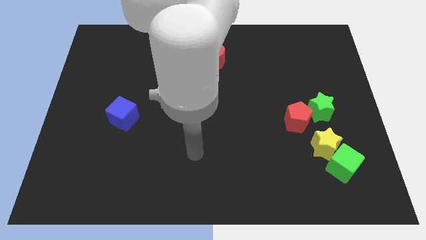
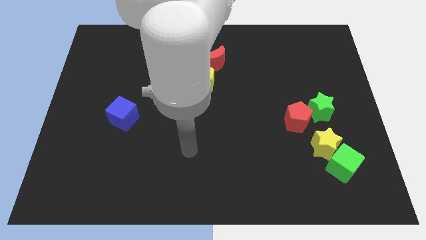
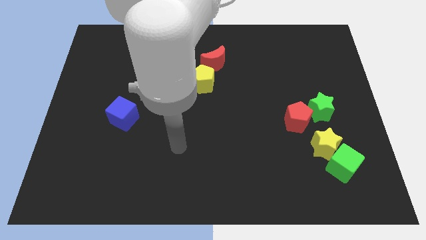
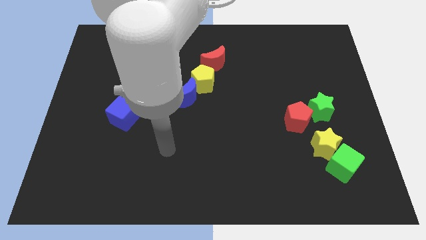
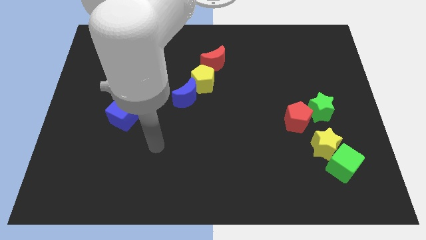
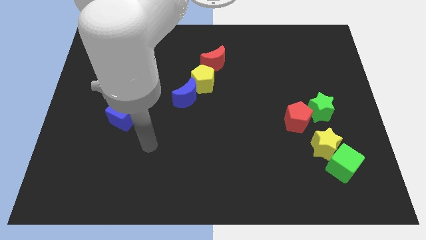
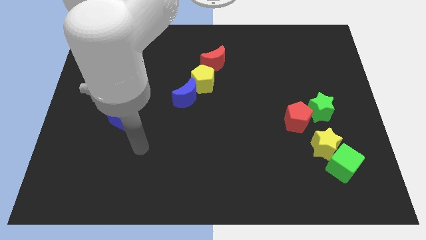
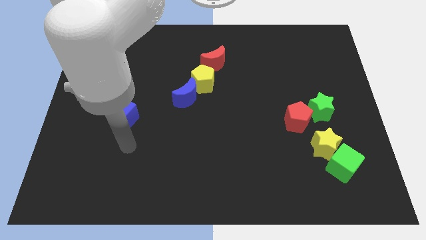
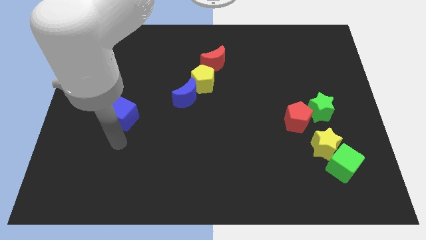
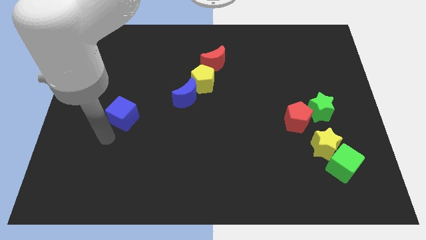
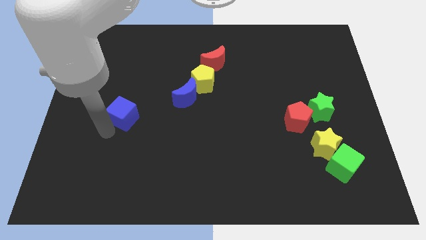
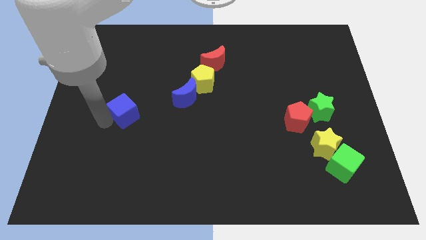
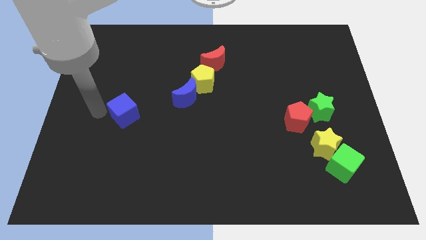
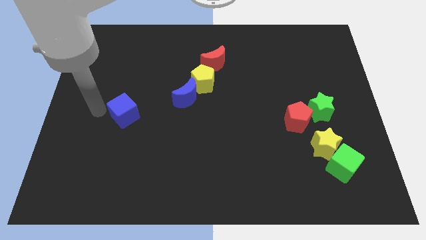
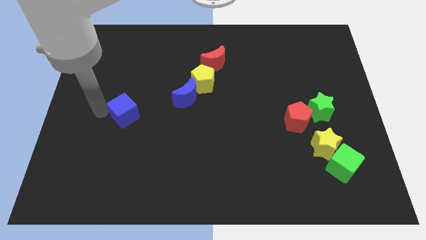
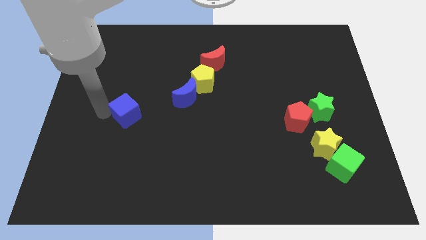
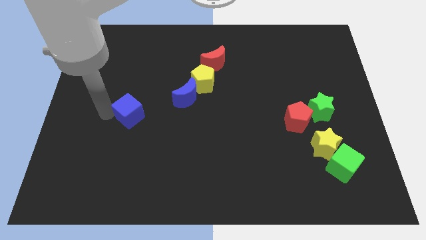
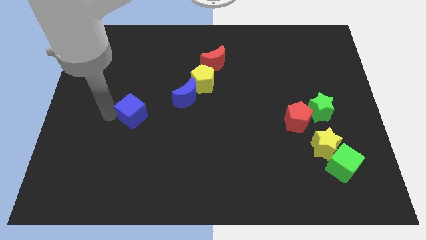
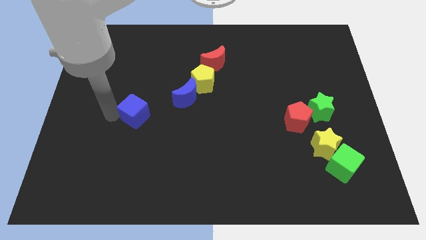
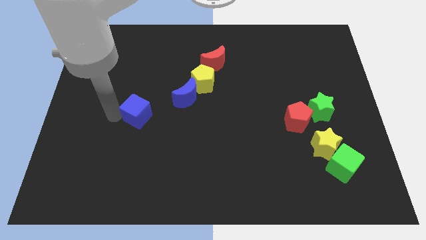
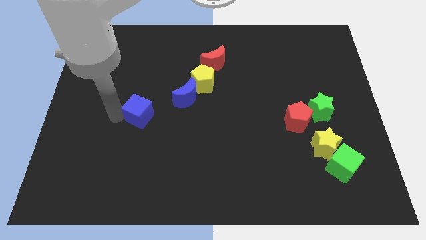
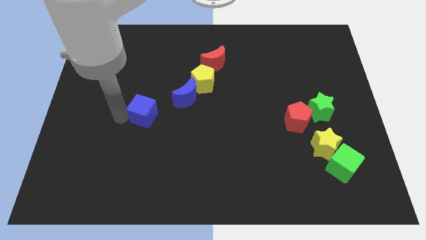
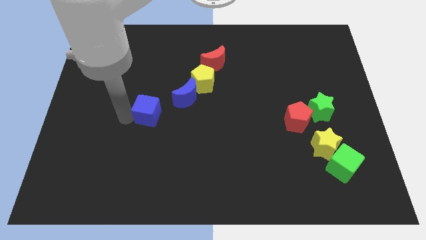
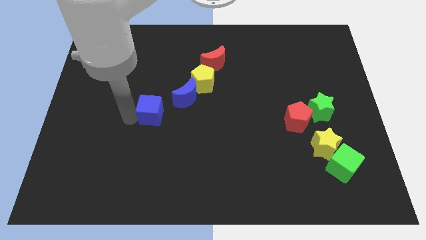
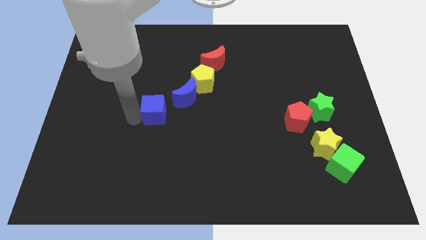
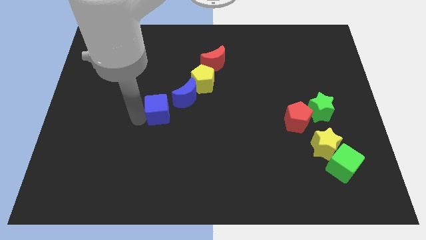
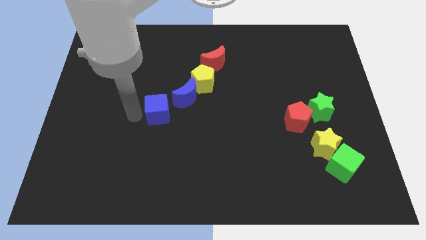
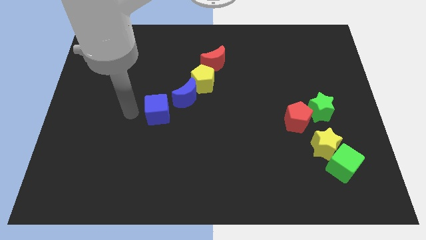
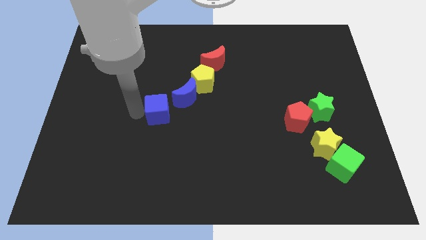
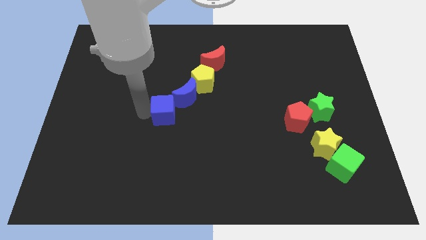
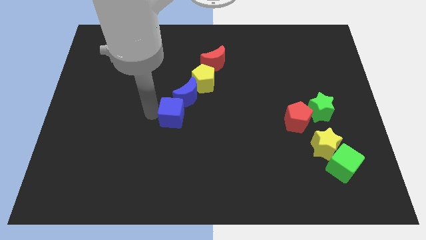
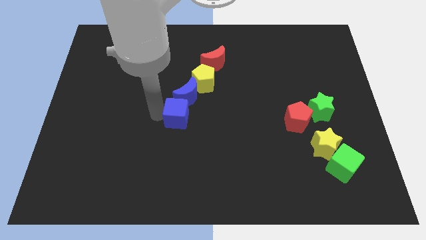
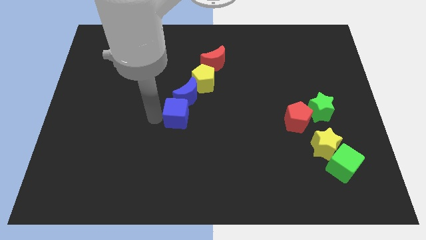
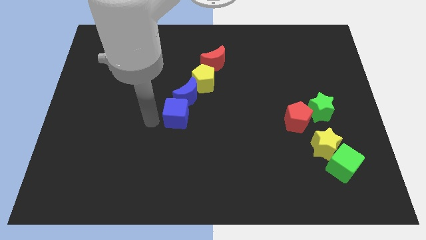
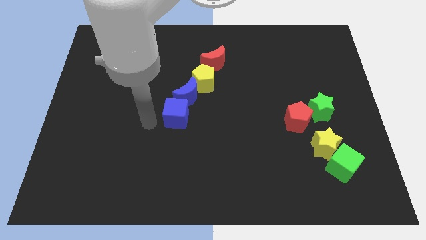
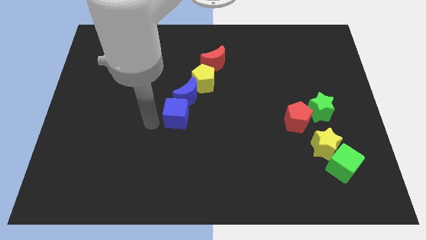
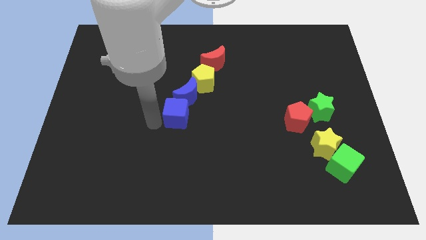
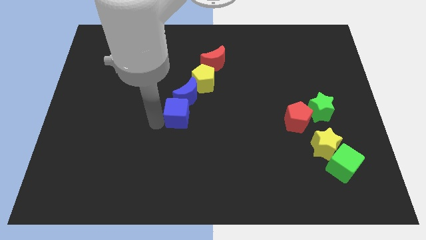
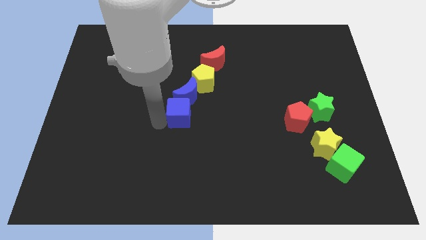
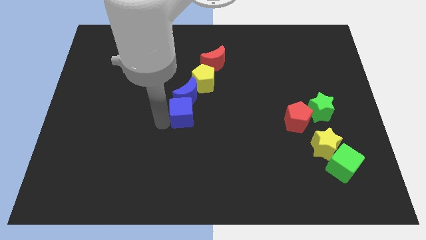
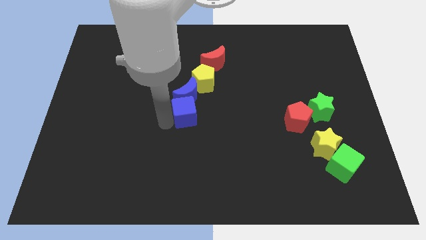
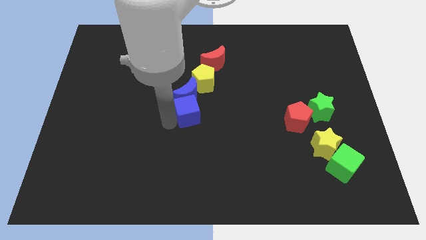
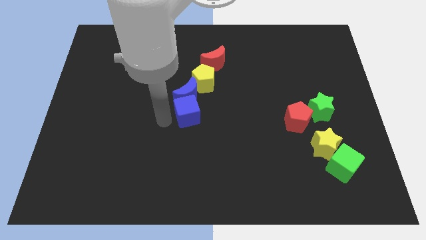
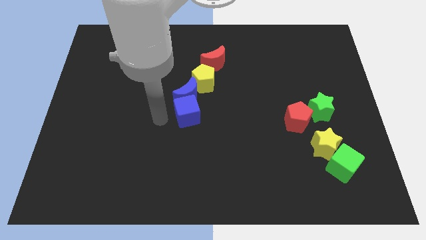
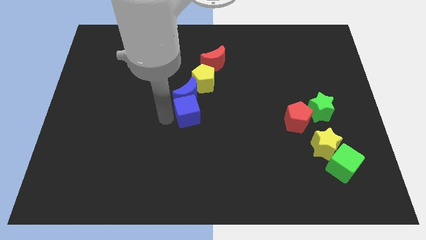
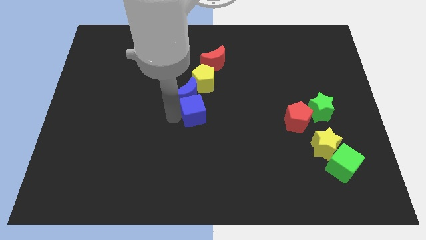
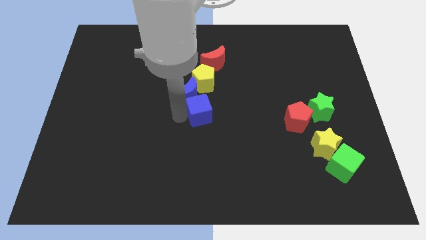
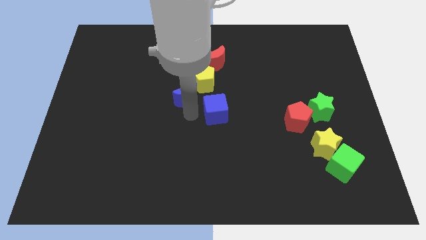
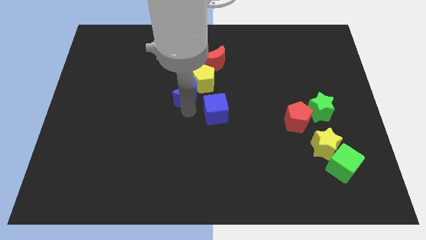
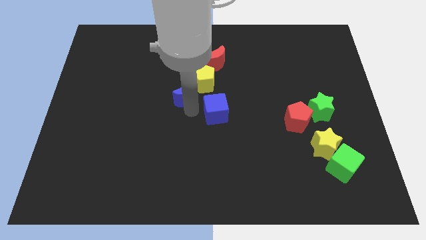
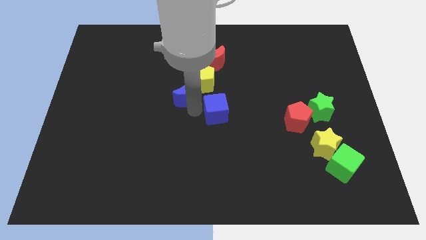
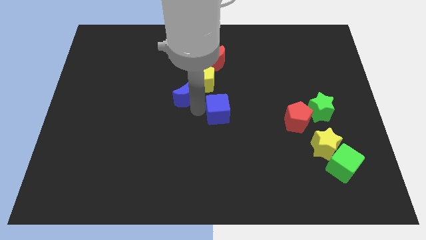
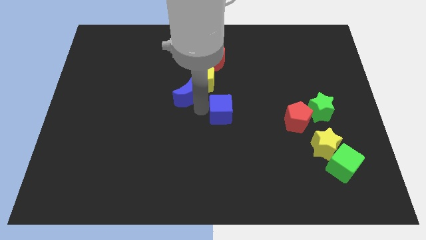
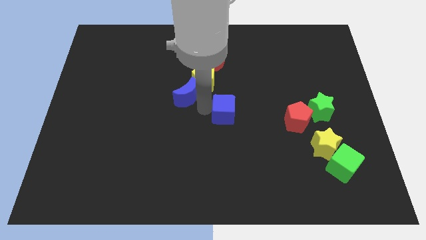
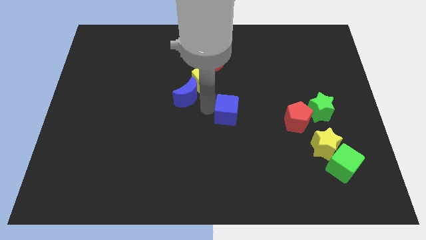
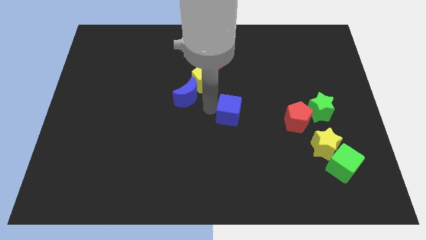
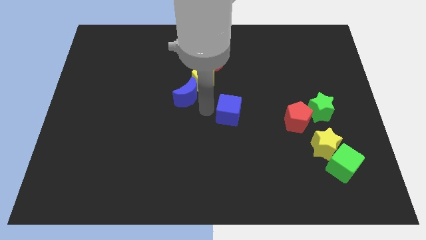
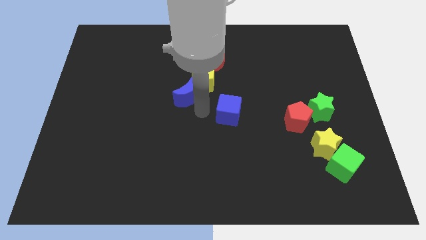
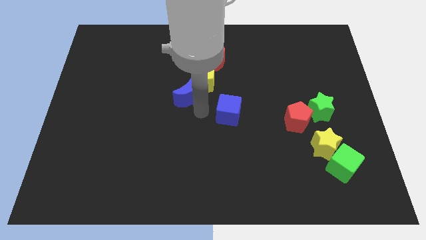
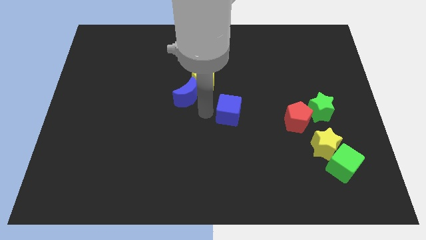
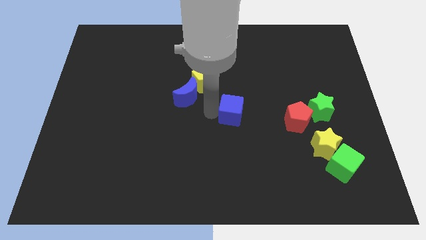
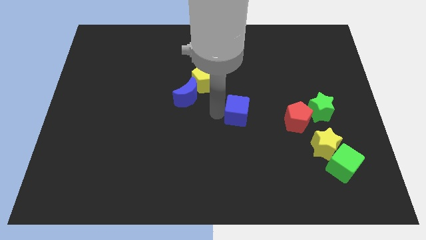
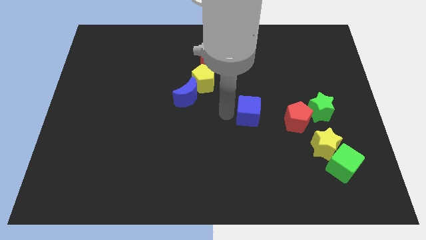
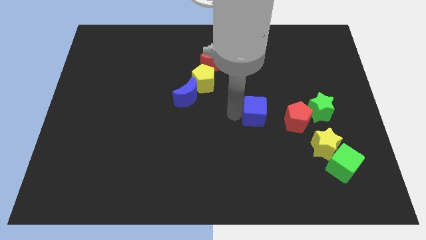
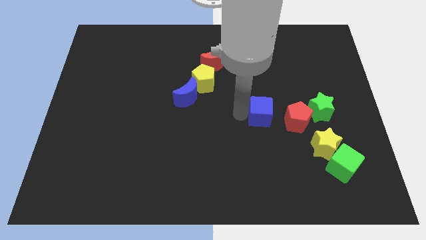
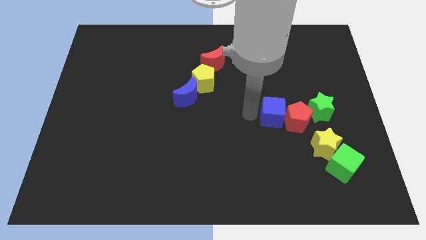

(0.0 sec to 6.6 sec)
push the blue cube next to the red pentagon

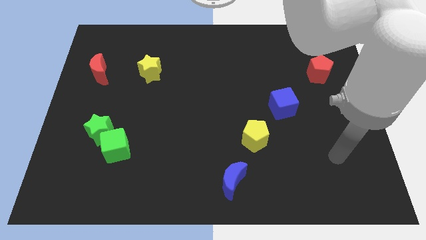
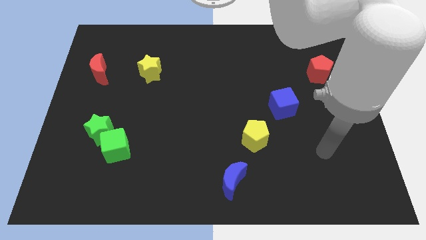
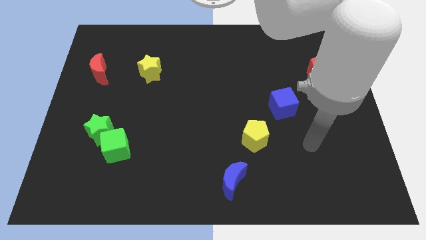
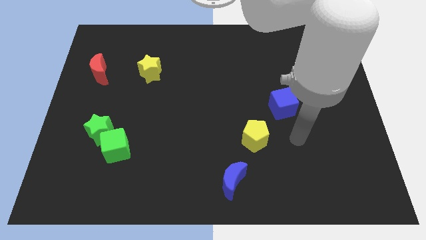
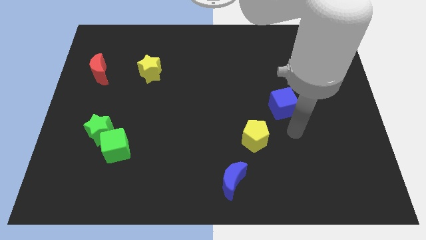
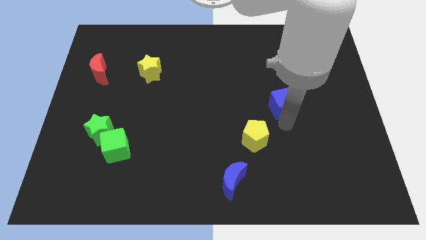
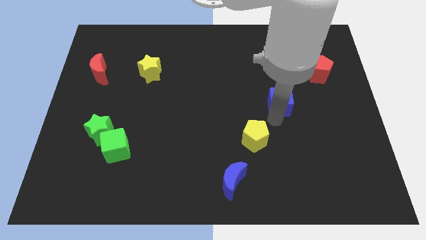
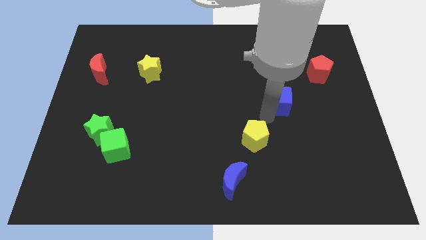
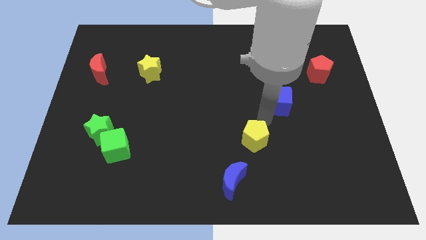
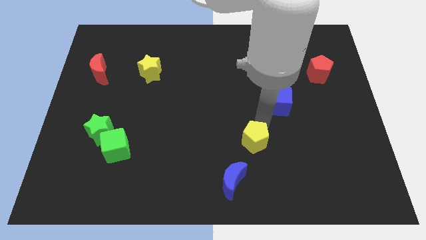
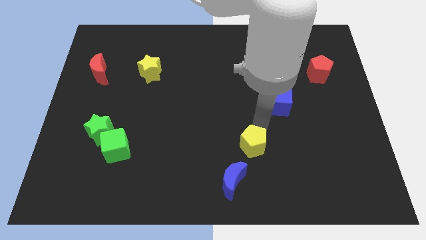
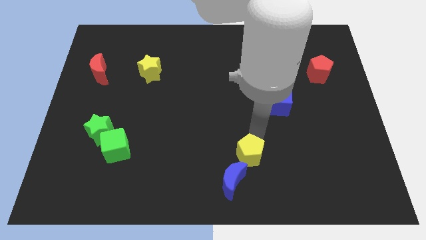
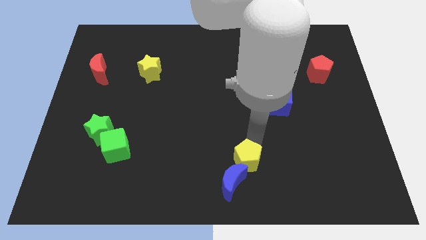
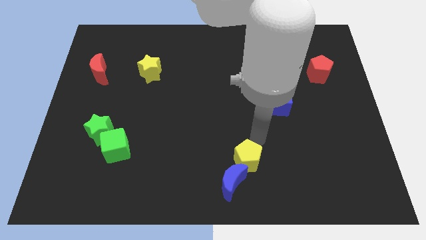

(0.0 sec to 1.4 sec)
push the yellow pentagon close to the blue moon

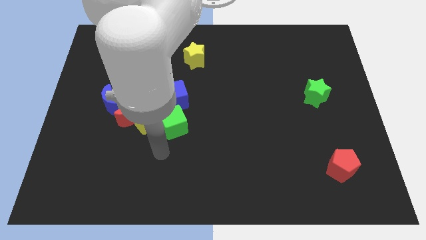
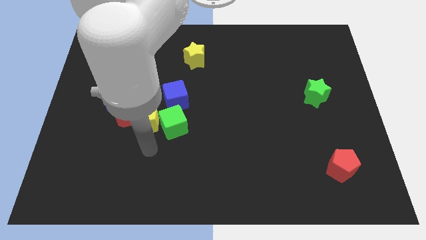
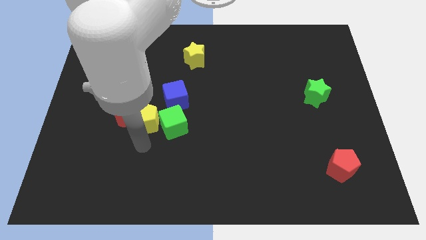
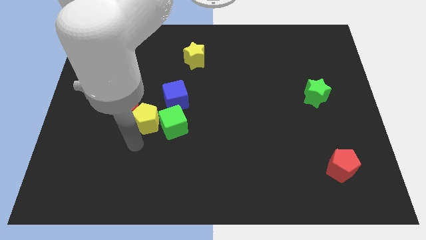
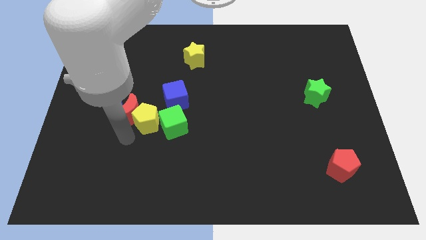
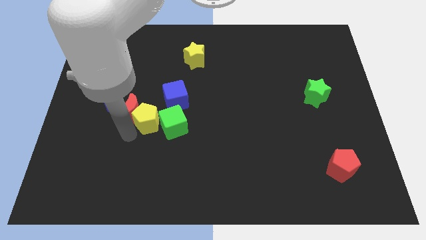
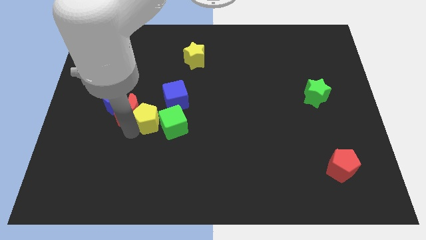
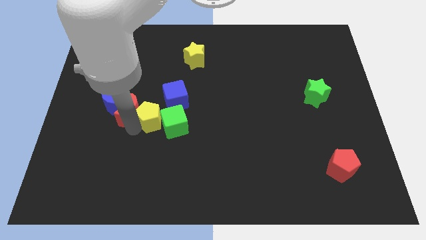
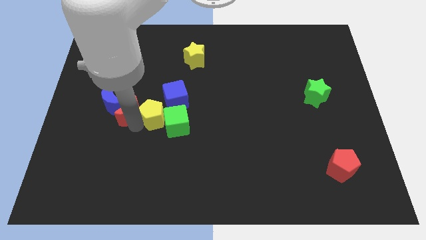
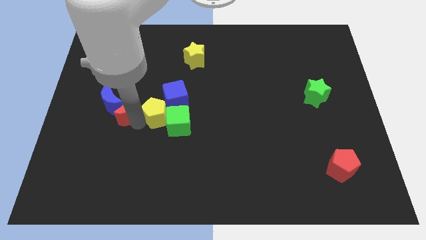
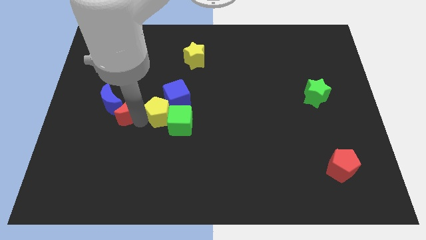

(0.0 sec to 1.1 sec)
move the yellow pentagon next to the blue cube
